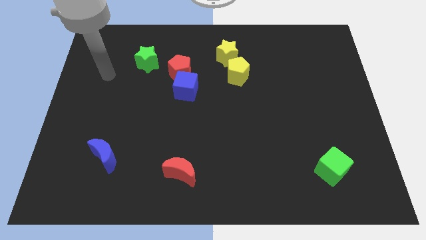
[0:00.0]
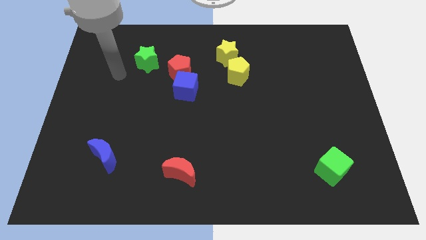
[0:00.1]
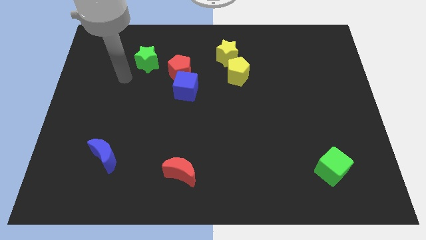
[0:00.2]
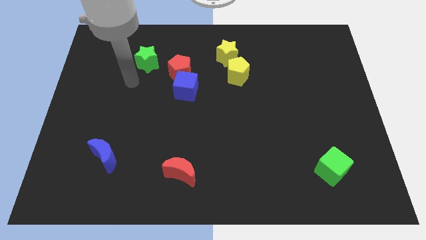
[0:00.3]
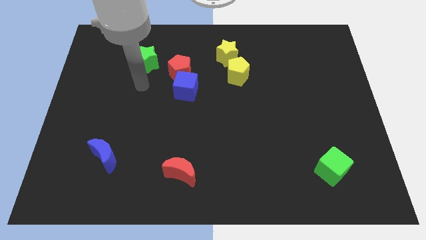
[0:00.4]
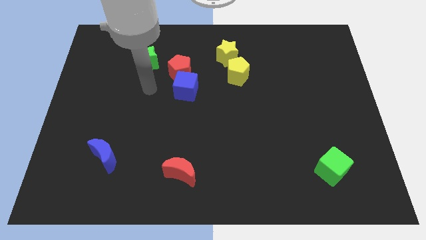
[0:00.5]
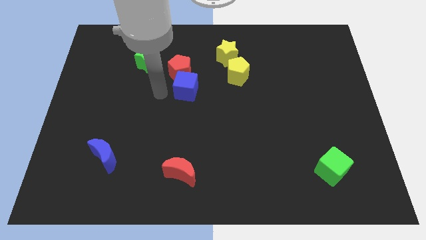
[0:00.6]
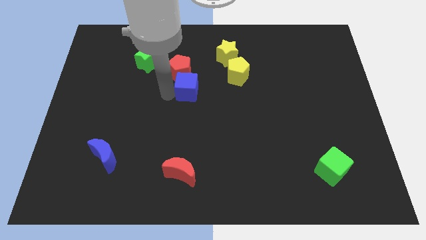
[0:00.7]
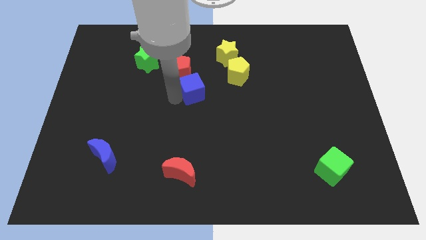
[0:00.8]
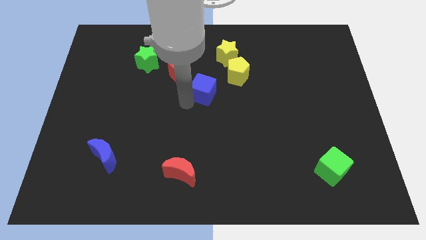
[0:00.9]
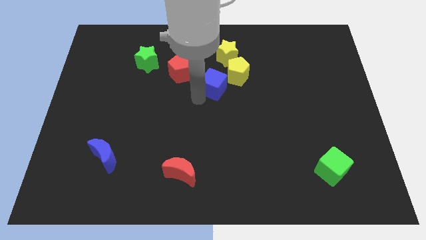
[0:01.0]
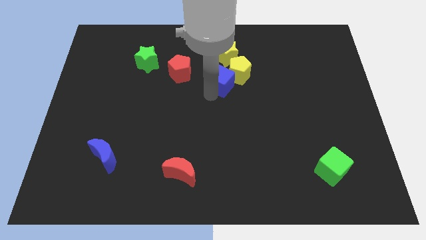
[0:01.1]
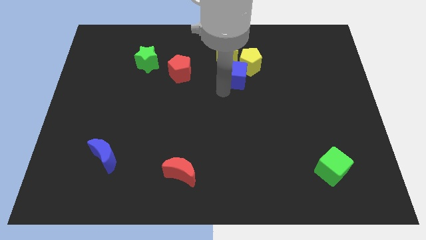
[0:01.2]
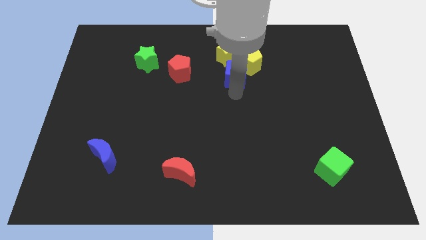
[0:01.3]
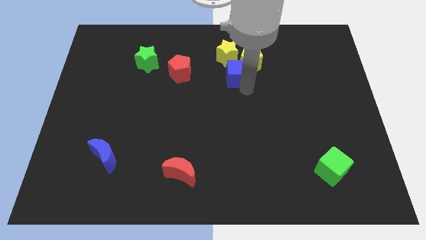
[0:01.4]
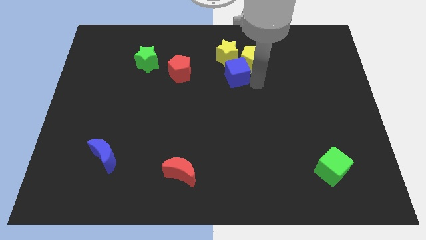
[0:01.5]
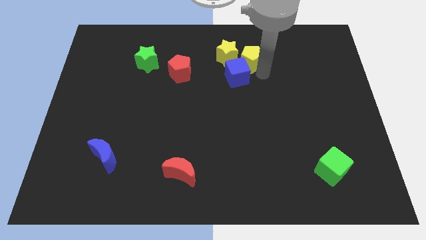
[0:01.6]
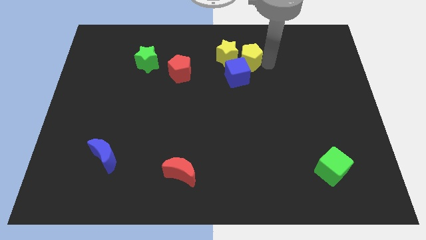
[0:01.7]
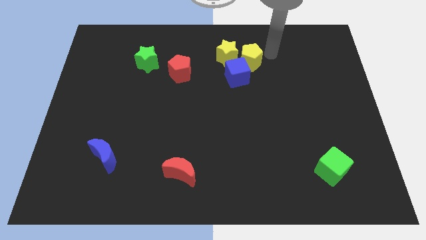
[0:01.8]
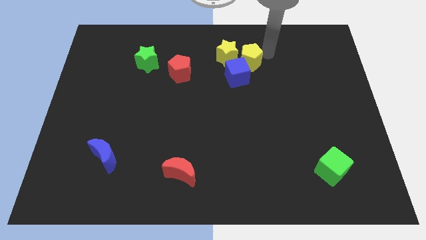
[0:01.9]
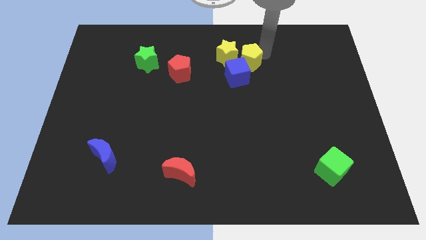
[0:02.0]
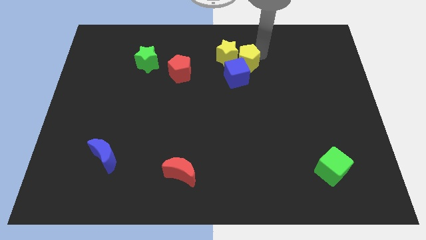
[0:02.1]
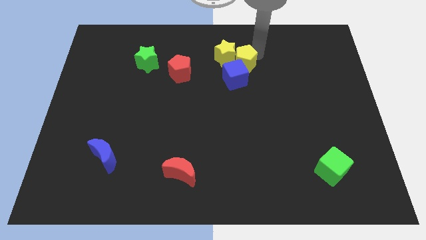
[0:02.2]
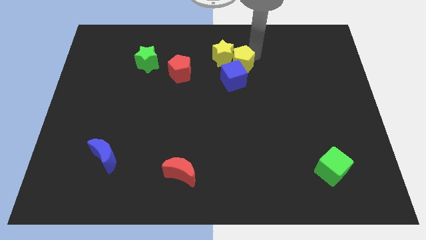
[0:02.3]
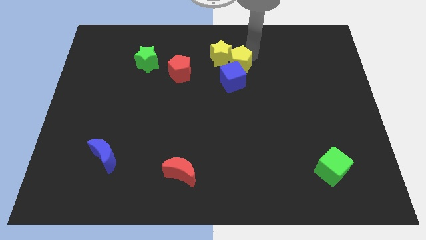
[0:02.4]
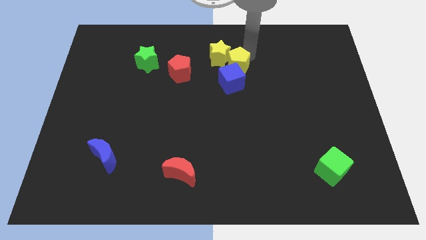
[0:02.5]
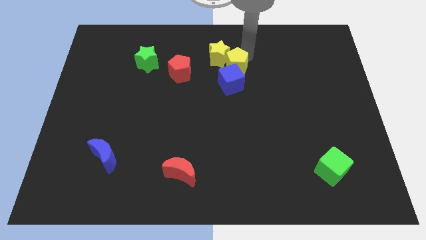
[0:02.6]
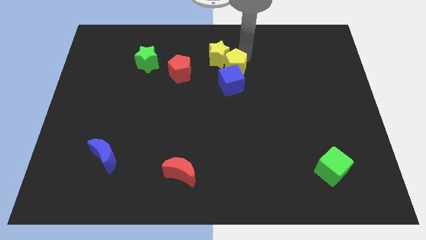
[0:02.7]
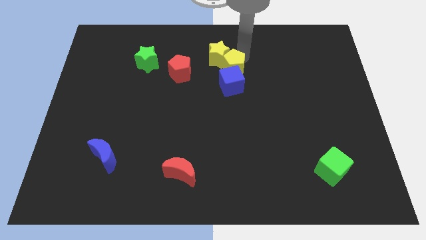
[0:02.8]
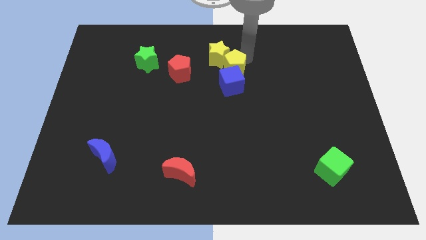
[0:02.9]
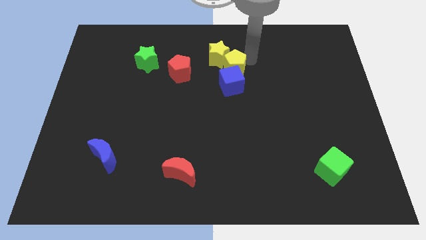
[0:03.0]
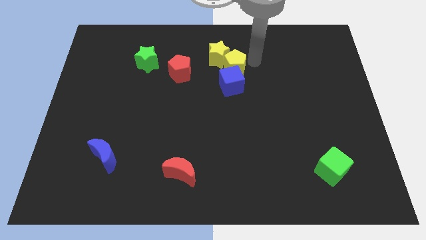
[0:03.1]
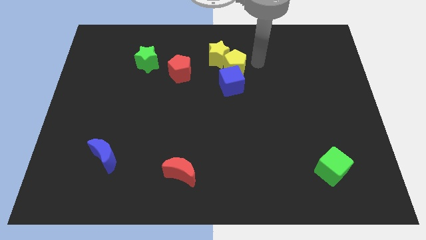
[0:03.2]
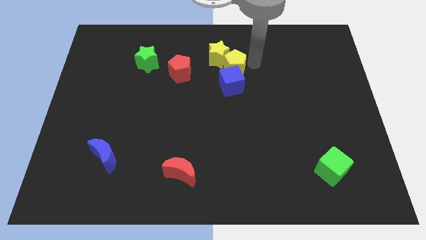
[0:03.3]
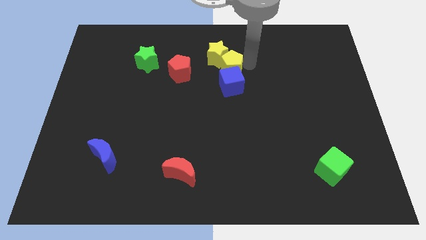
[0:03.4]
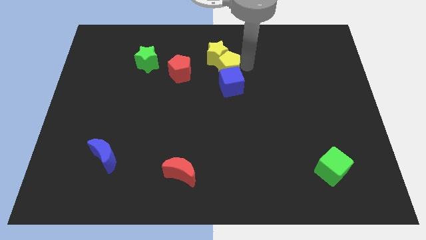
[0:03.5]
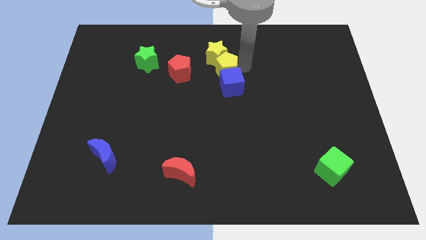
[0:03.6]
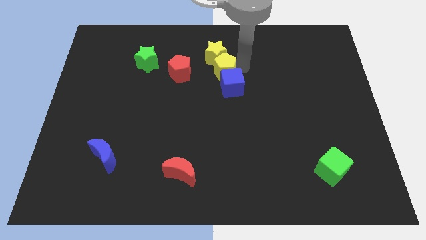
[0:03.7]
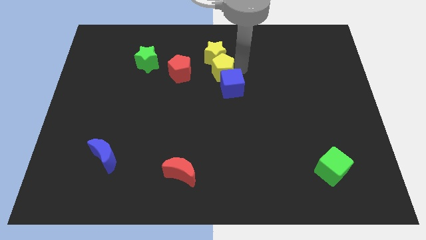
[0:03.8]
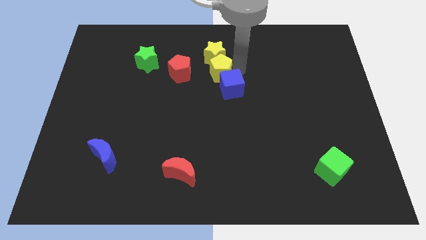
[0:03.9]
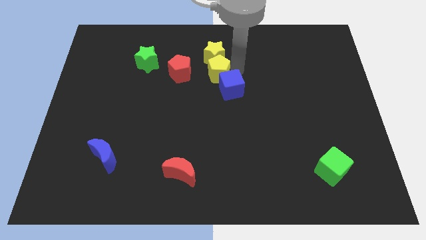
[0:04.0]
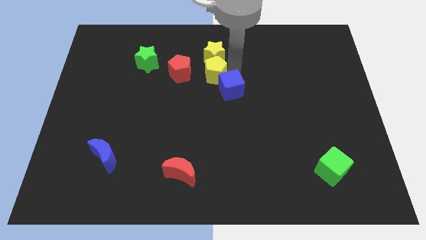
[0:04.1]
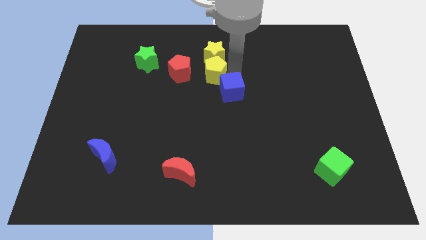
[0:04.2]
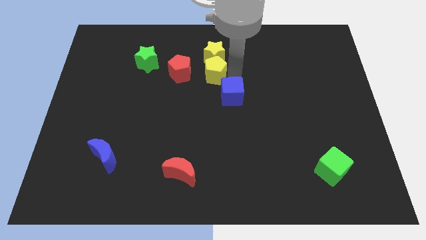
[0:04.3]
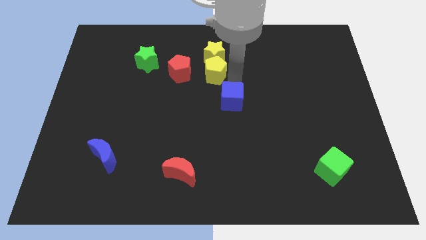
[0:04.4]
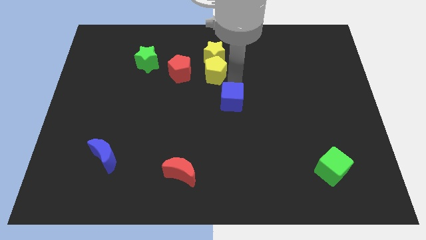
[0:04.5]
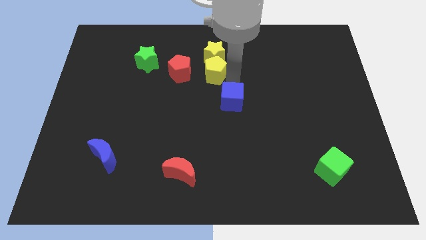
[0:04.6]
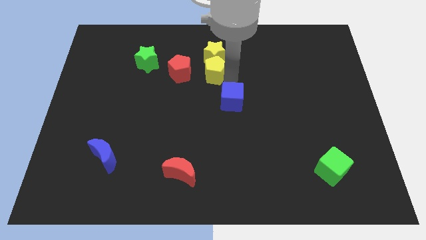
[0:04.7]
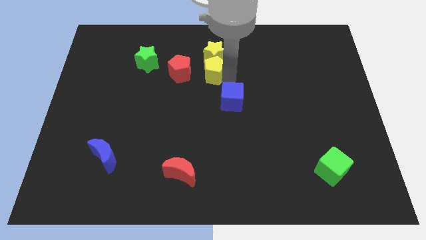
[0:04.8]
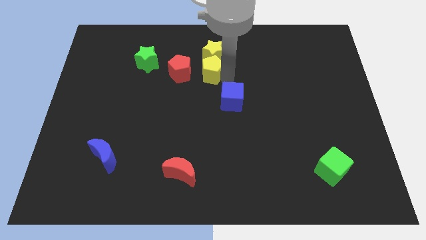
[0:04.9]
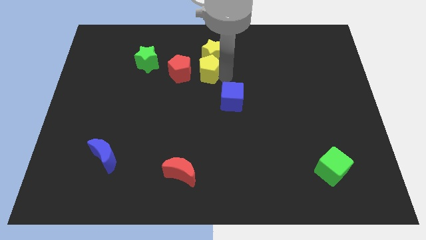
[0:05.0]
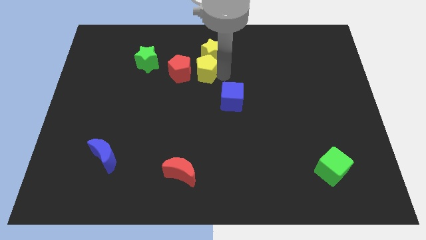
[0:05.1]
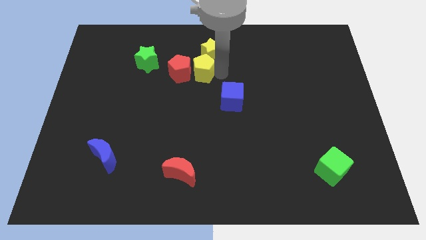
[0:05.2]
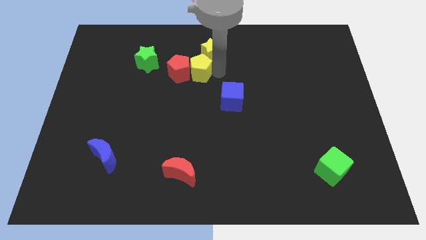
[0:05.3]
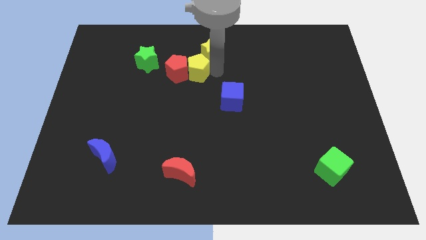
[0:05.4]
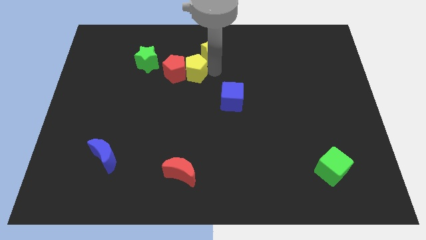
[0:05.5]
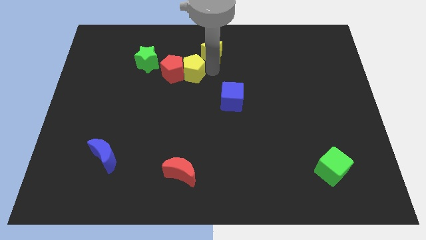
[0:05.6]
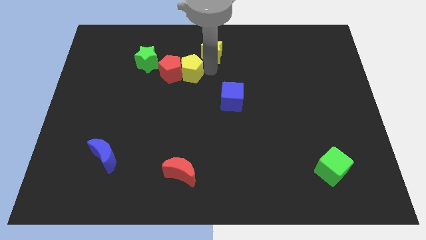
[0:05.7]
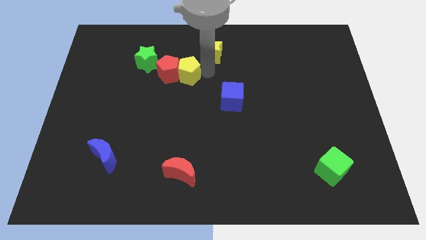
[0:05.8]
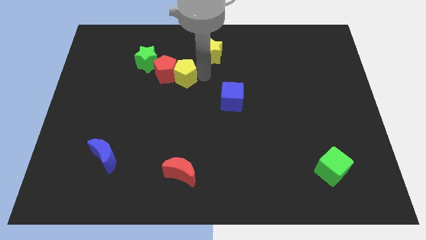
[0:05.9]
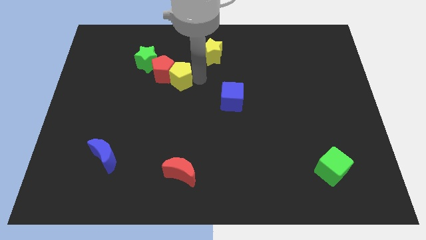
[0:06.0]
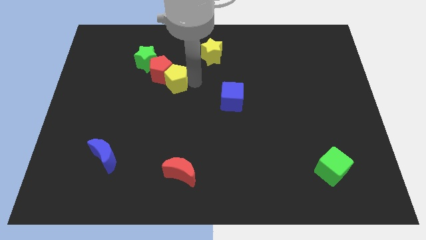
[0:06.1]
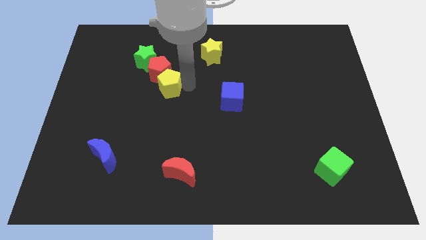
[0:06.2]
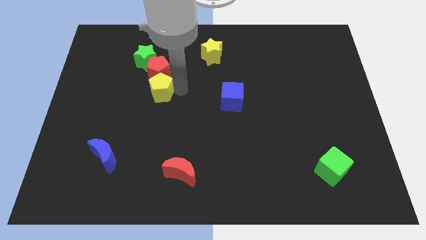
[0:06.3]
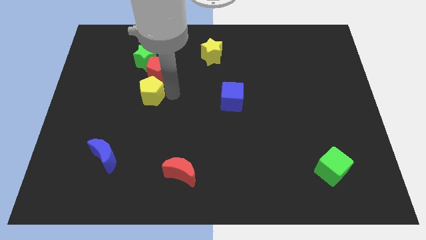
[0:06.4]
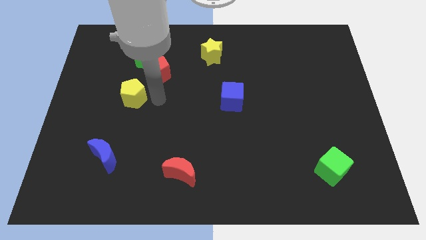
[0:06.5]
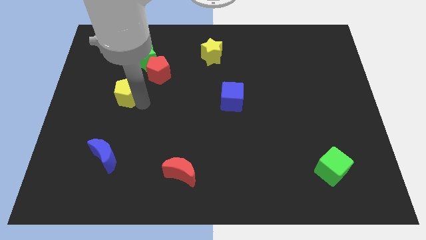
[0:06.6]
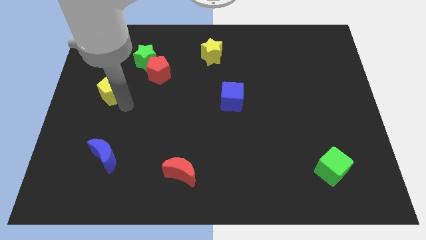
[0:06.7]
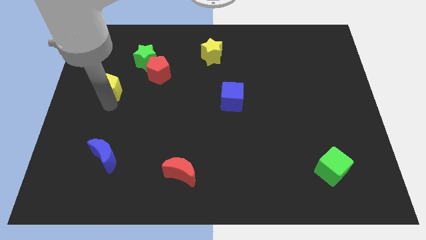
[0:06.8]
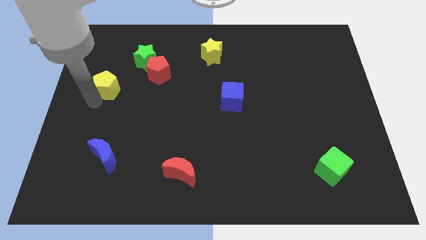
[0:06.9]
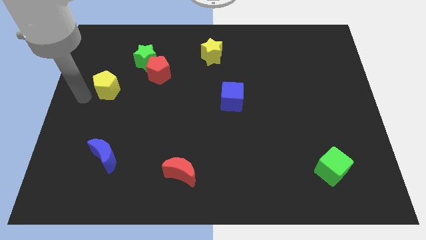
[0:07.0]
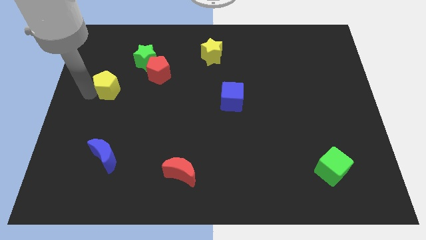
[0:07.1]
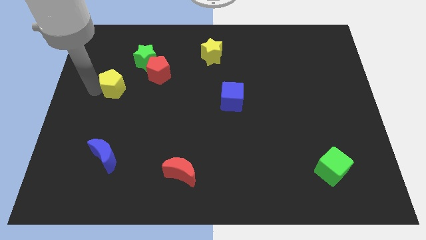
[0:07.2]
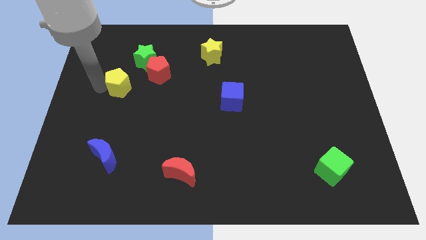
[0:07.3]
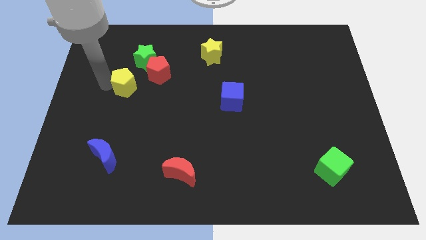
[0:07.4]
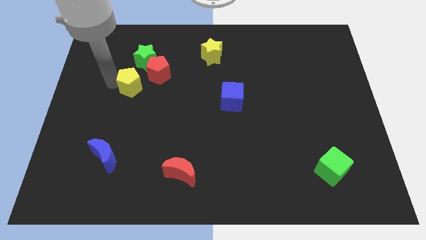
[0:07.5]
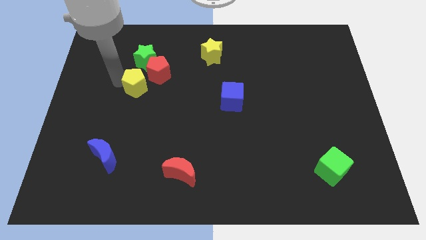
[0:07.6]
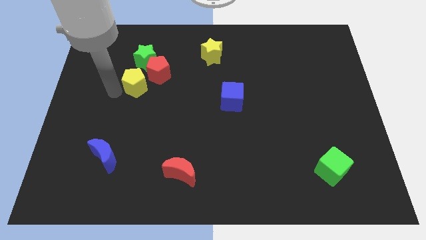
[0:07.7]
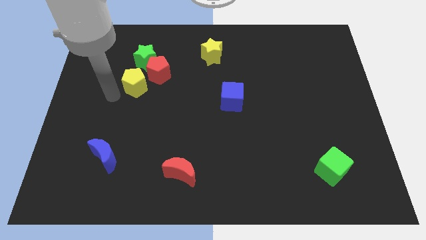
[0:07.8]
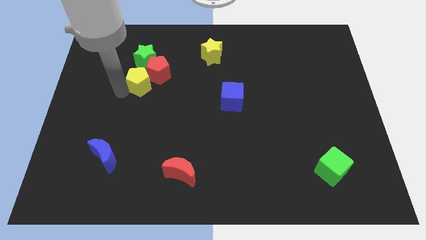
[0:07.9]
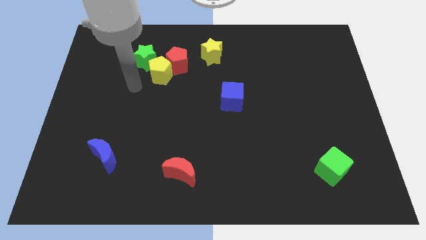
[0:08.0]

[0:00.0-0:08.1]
push the yellow pentagon close to the green star
